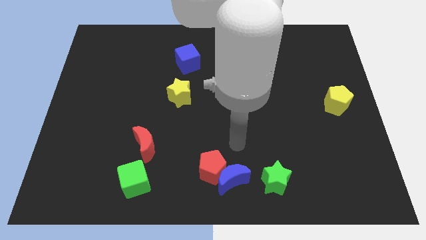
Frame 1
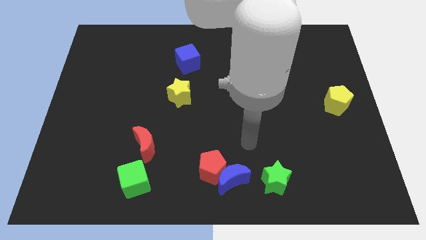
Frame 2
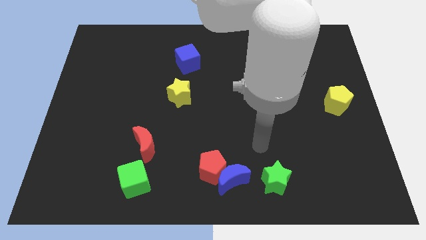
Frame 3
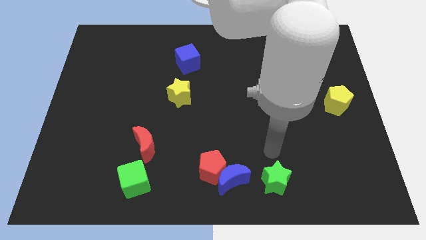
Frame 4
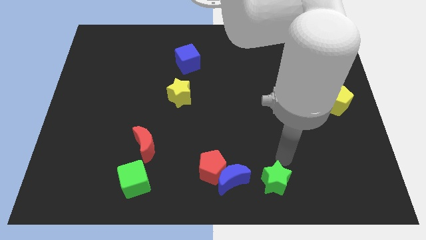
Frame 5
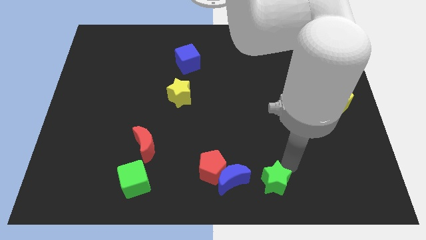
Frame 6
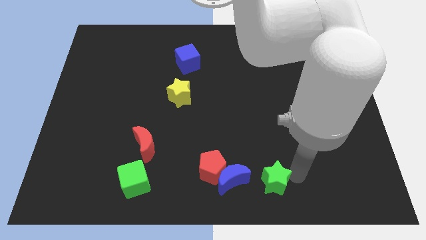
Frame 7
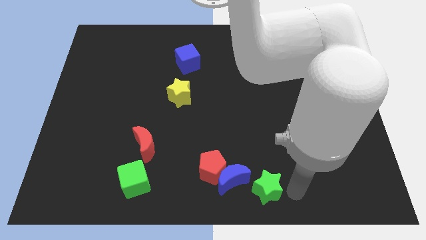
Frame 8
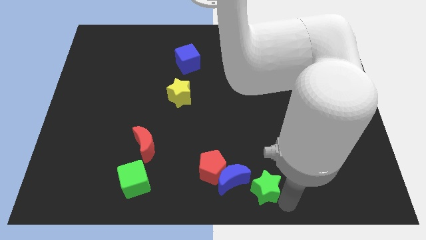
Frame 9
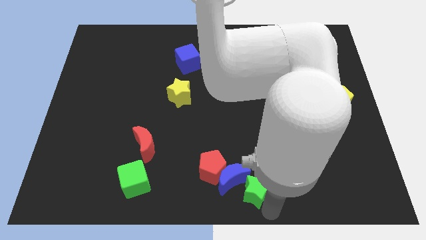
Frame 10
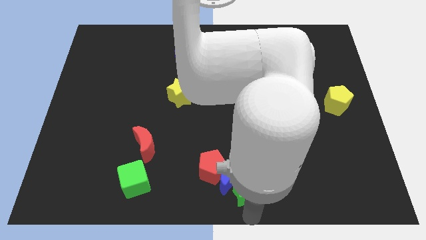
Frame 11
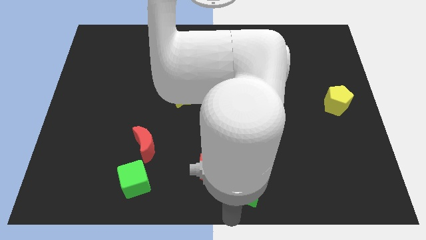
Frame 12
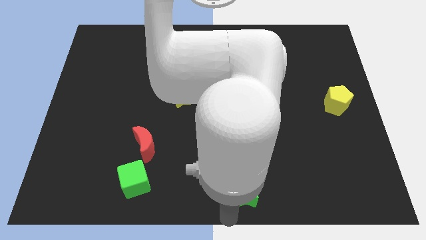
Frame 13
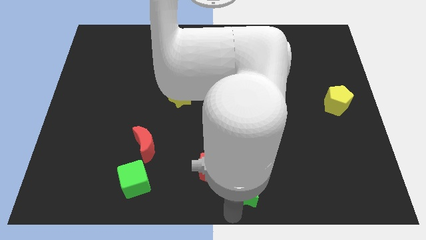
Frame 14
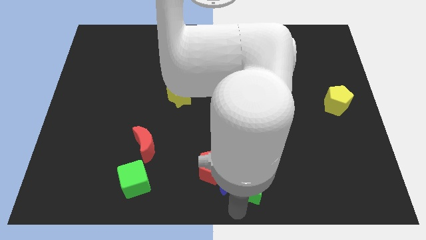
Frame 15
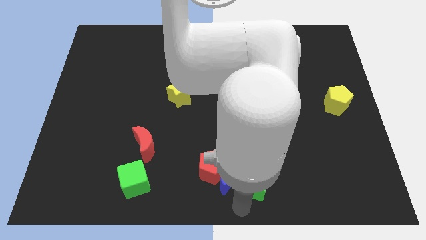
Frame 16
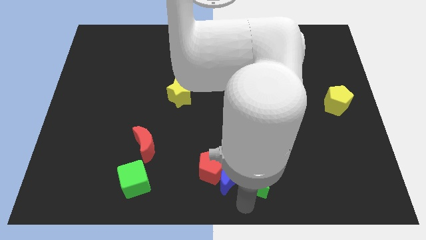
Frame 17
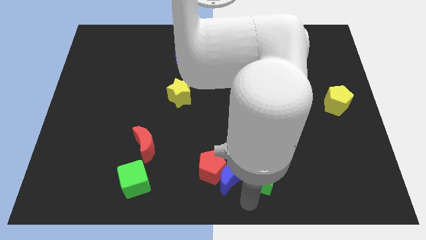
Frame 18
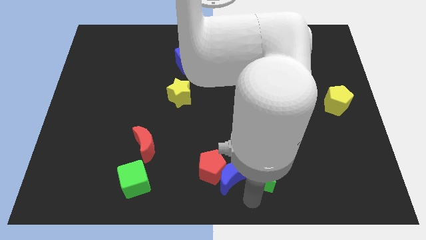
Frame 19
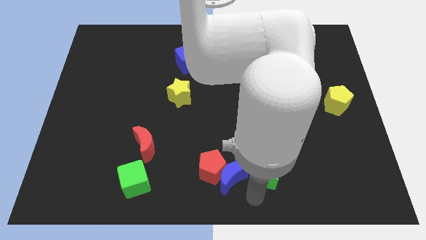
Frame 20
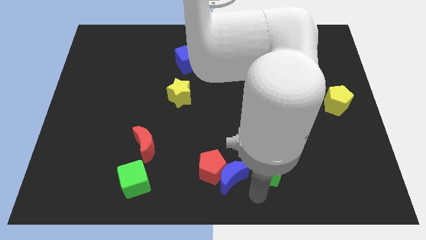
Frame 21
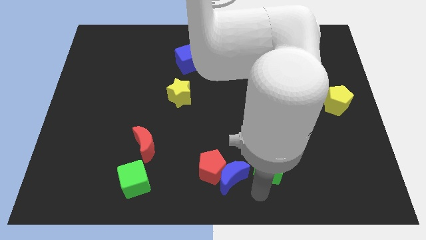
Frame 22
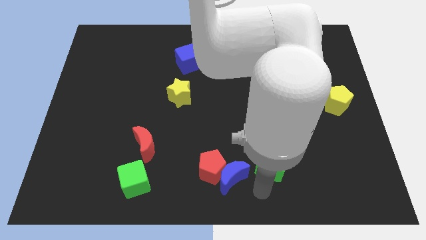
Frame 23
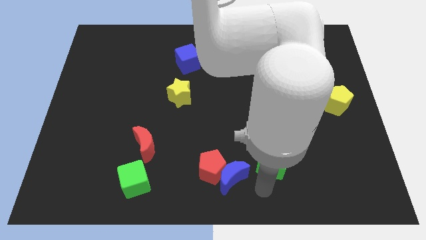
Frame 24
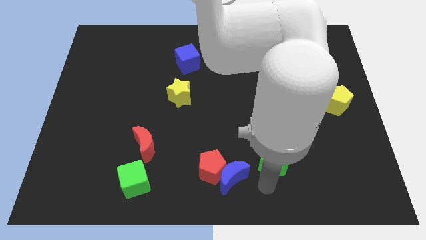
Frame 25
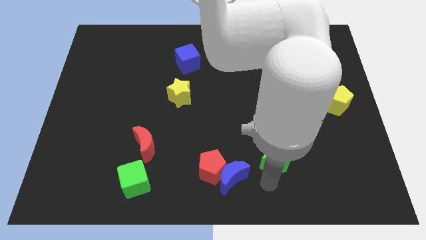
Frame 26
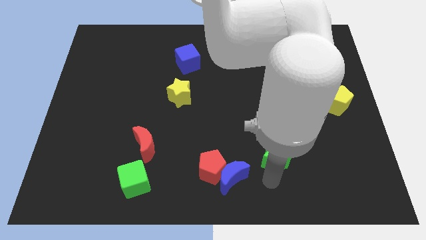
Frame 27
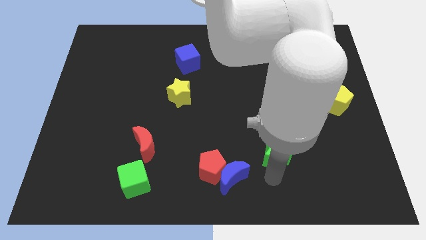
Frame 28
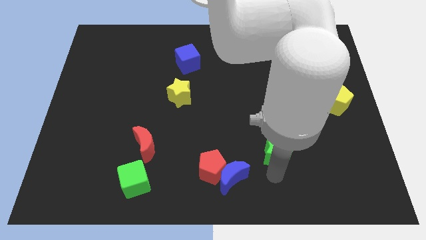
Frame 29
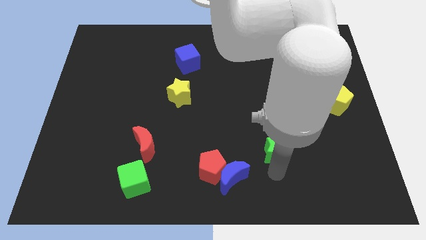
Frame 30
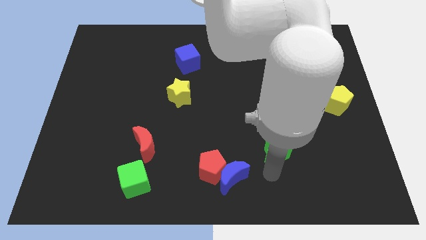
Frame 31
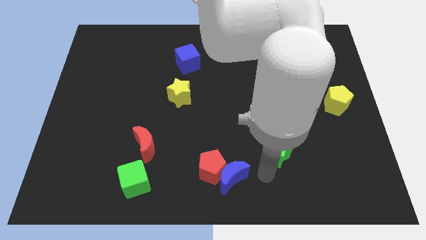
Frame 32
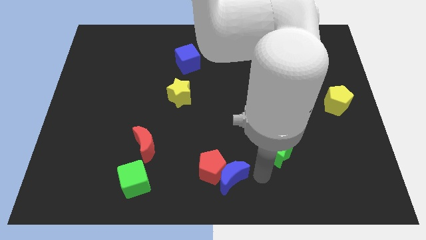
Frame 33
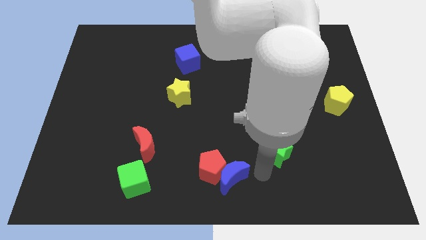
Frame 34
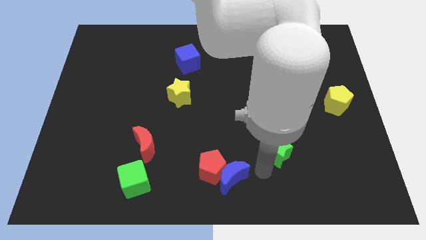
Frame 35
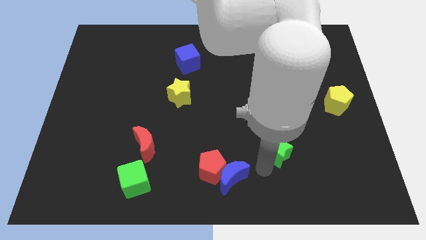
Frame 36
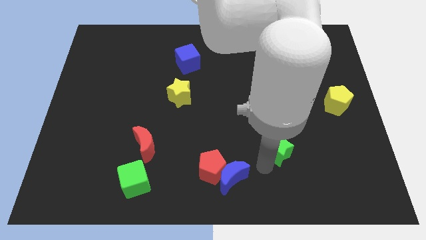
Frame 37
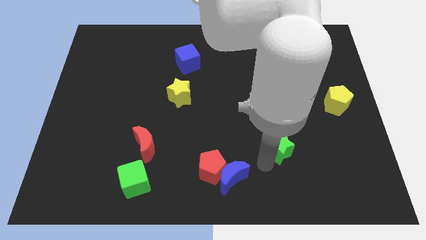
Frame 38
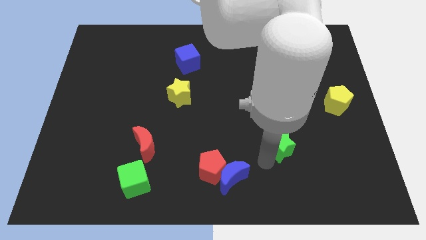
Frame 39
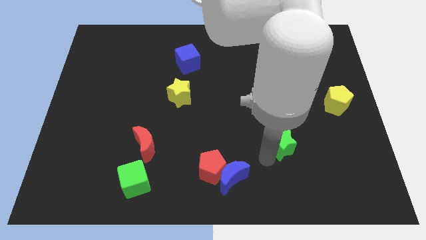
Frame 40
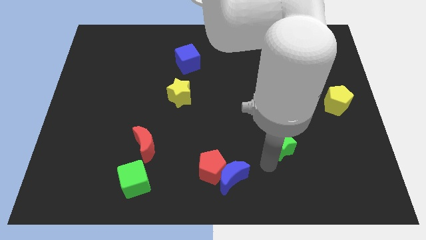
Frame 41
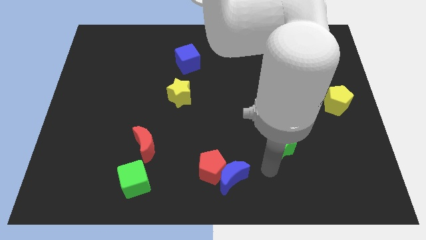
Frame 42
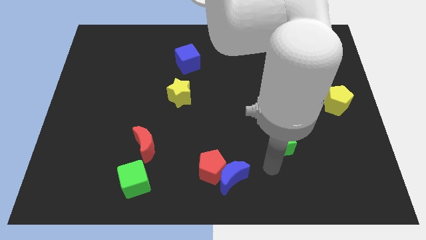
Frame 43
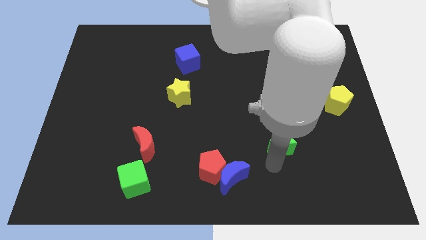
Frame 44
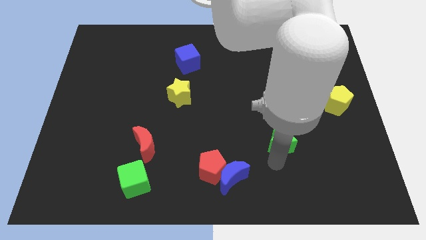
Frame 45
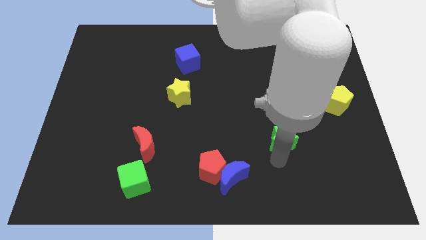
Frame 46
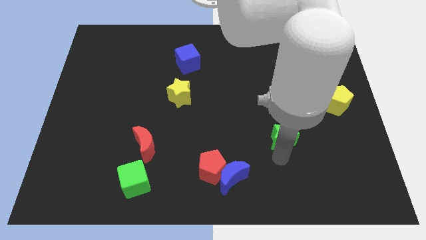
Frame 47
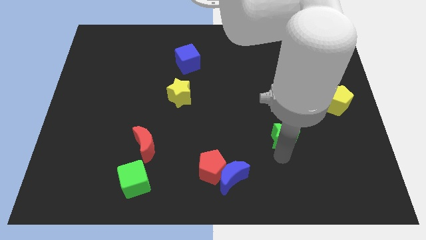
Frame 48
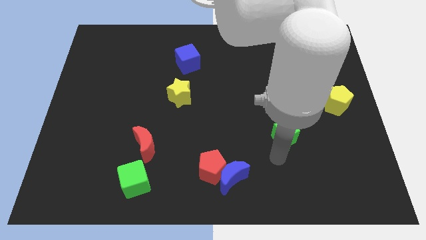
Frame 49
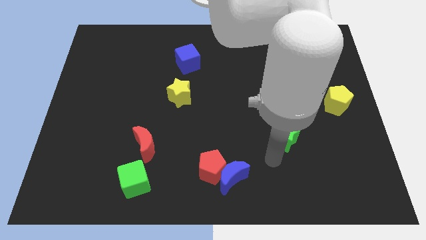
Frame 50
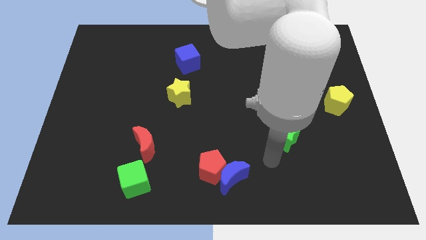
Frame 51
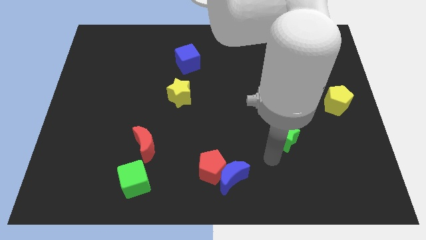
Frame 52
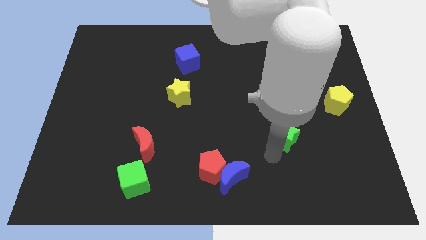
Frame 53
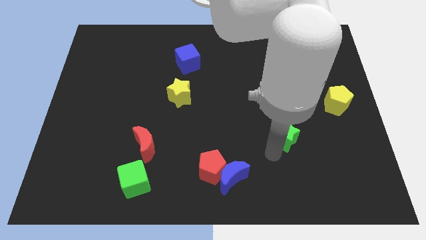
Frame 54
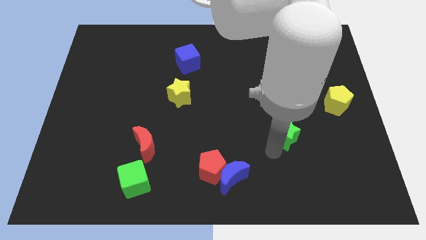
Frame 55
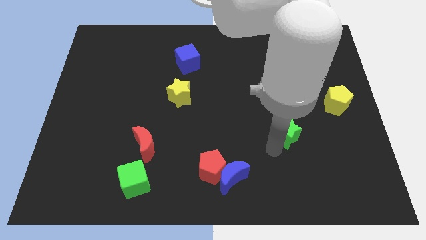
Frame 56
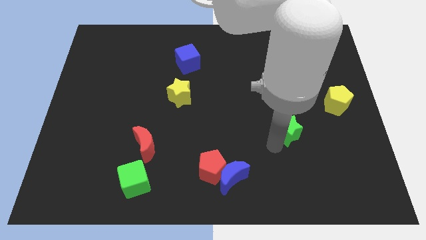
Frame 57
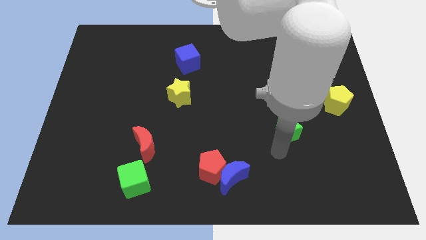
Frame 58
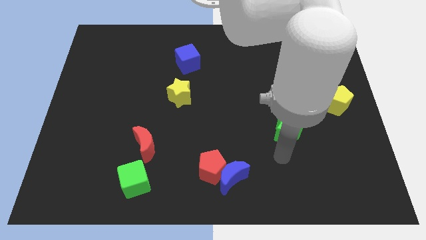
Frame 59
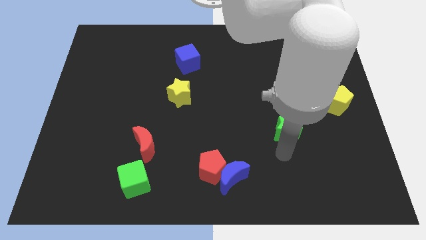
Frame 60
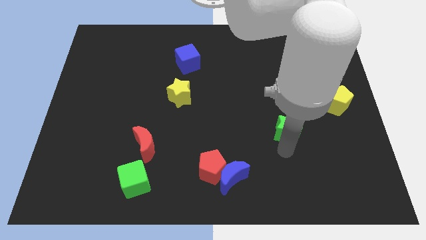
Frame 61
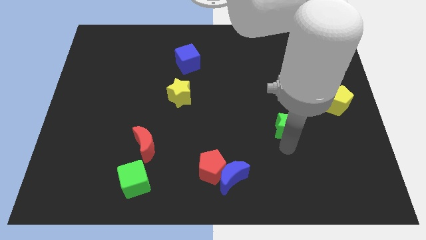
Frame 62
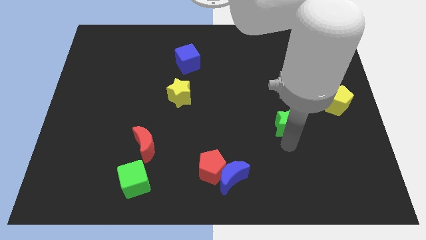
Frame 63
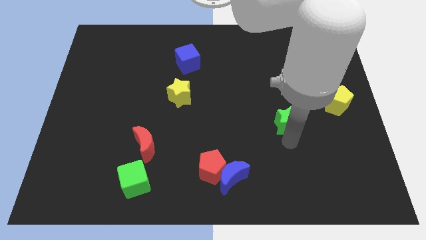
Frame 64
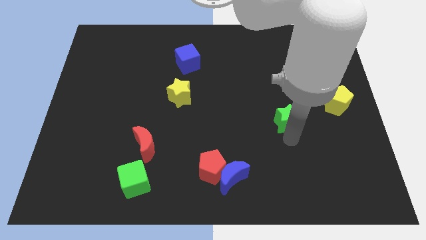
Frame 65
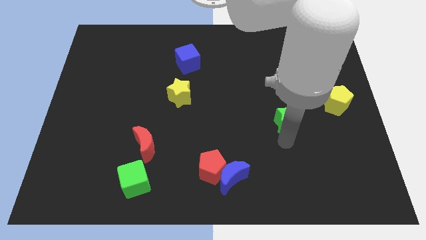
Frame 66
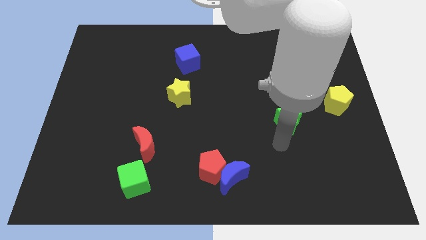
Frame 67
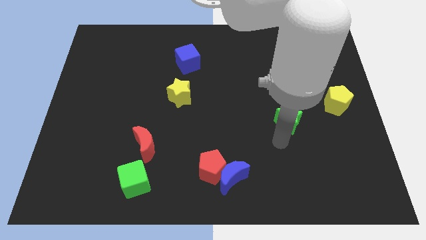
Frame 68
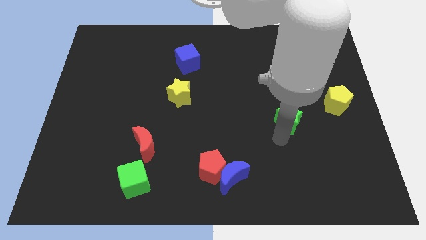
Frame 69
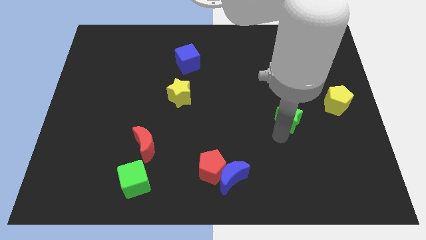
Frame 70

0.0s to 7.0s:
slide the green star to the left side of the yellow pentagon
